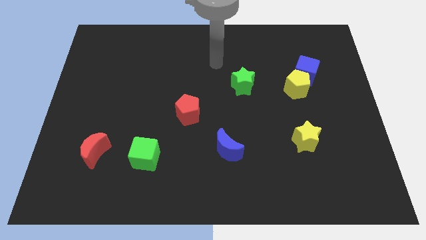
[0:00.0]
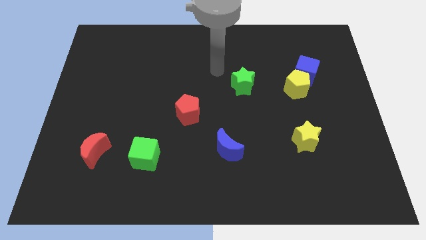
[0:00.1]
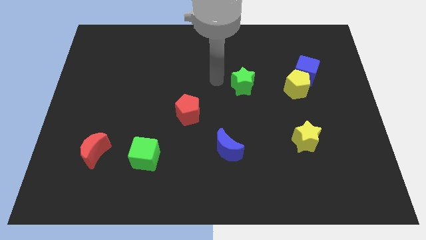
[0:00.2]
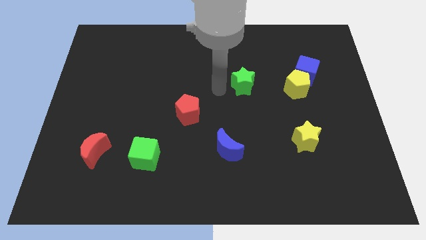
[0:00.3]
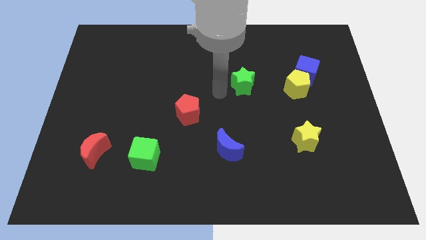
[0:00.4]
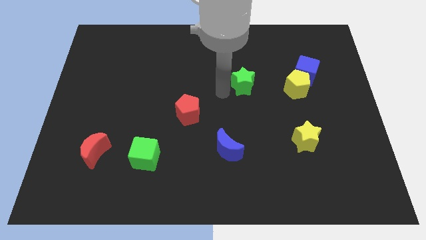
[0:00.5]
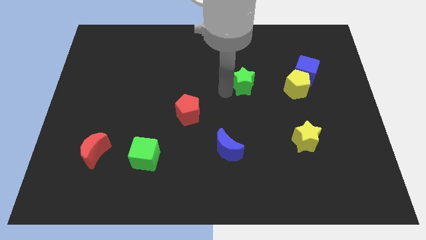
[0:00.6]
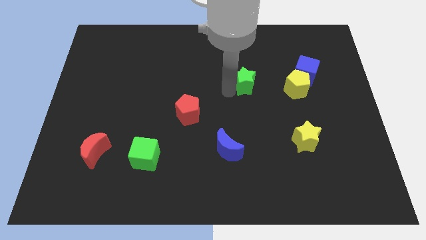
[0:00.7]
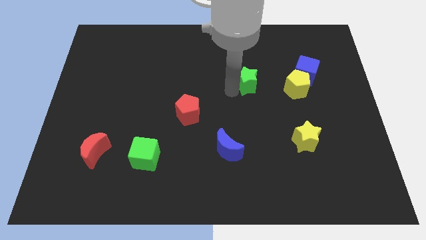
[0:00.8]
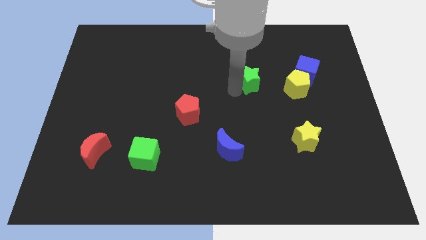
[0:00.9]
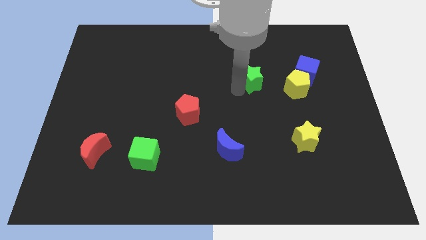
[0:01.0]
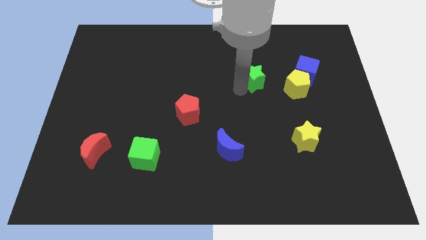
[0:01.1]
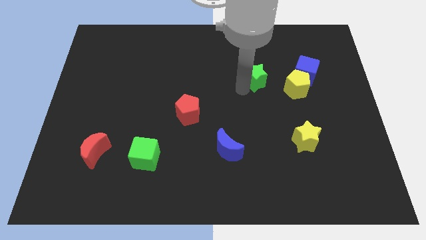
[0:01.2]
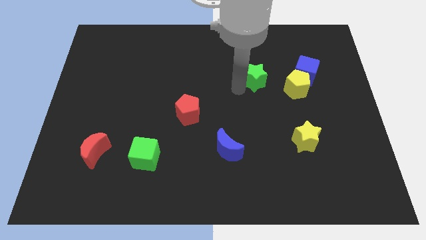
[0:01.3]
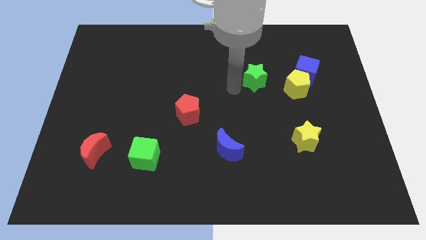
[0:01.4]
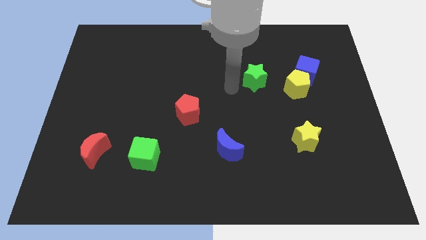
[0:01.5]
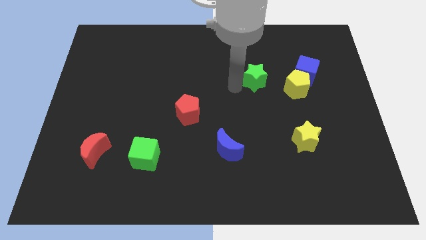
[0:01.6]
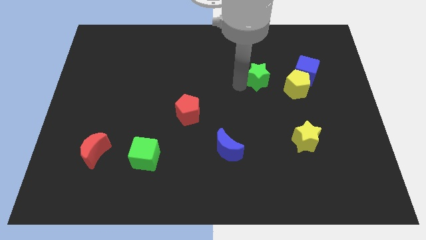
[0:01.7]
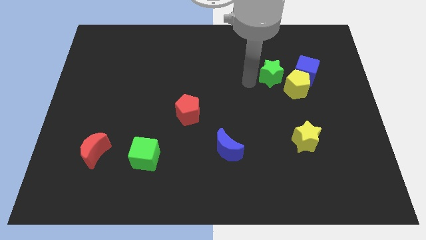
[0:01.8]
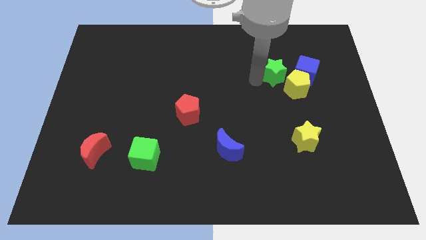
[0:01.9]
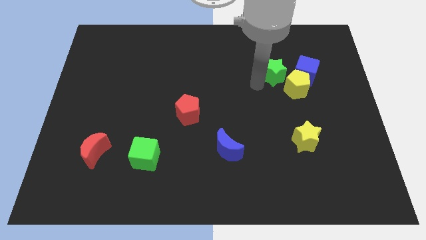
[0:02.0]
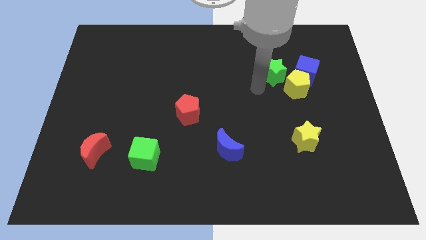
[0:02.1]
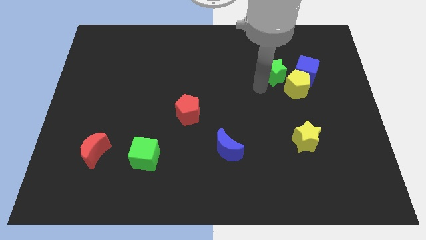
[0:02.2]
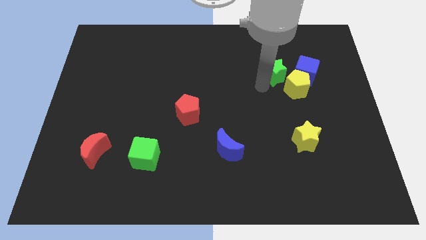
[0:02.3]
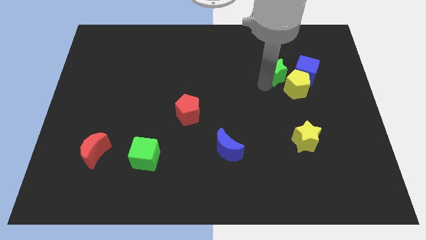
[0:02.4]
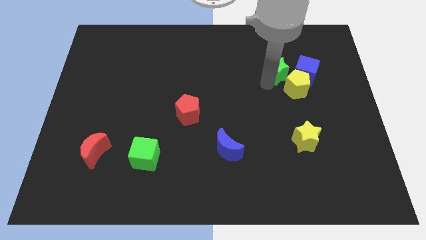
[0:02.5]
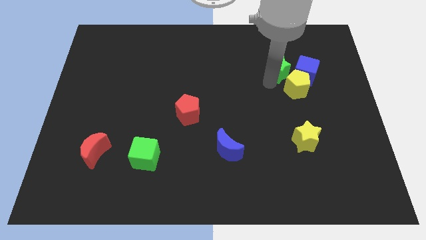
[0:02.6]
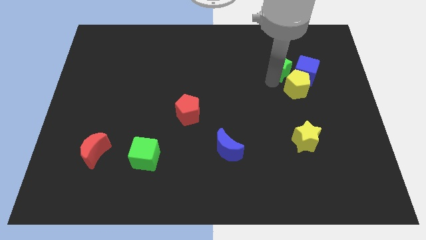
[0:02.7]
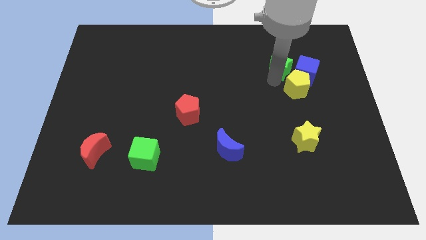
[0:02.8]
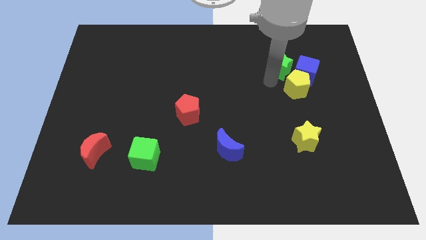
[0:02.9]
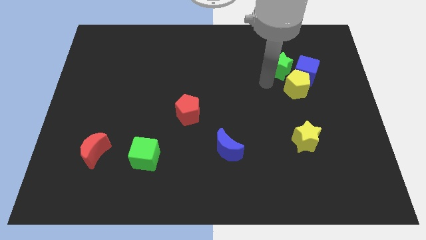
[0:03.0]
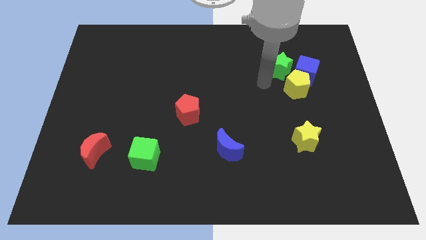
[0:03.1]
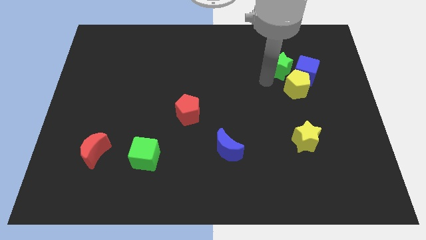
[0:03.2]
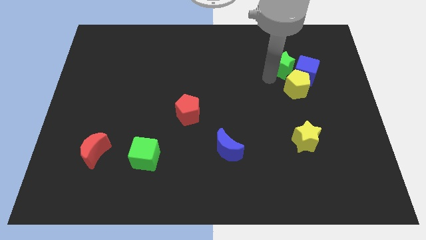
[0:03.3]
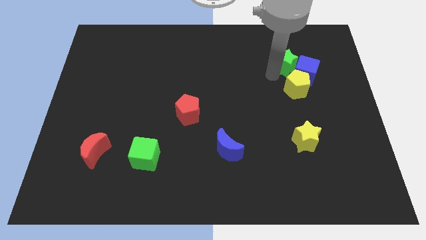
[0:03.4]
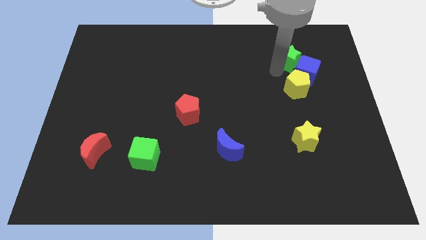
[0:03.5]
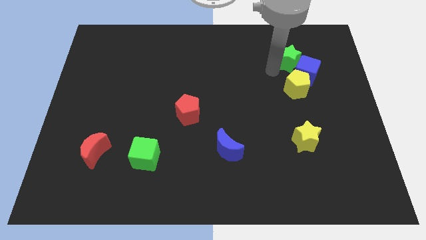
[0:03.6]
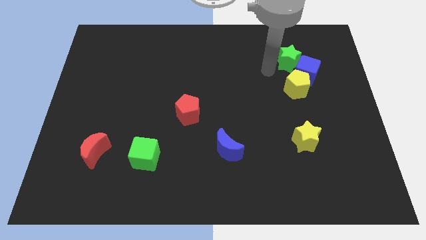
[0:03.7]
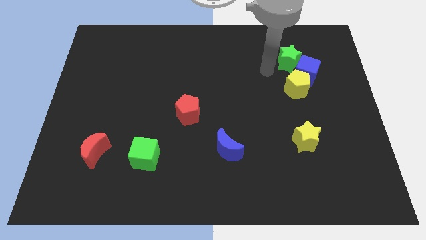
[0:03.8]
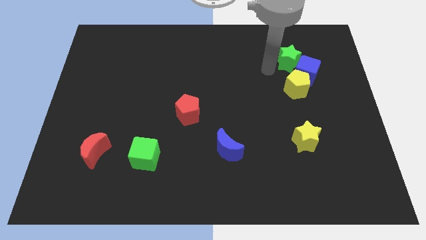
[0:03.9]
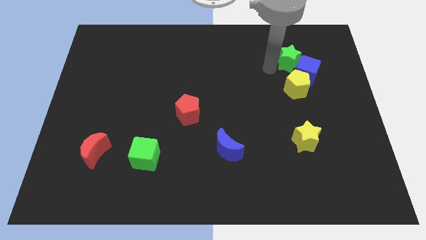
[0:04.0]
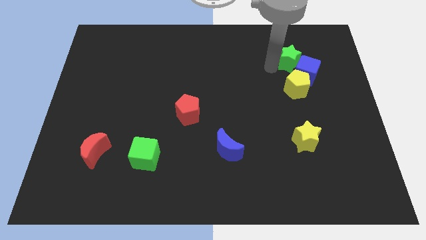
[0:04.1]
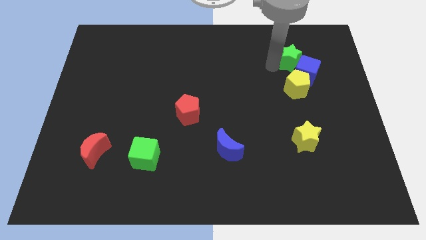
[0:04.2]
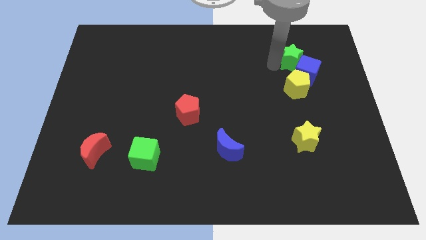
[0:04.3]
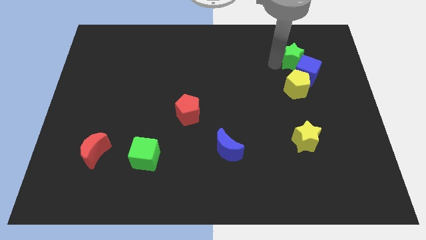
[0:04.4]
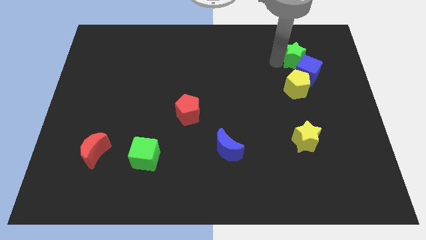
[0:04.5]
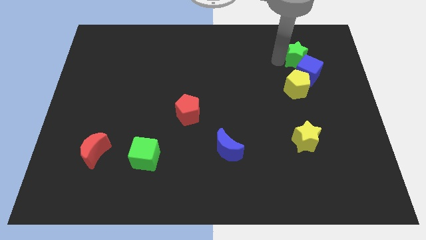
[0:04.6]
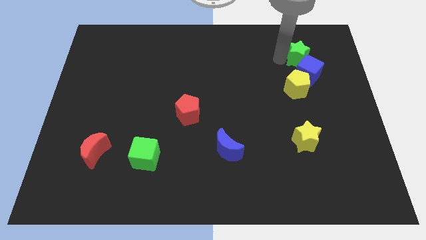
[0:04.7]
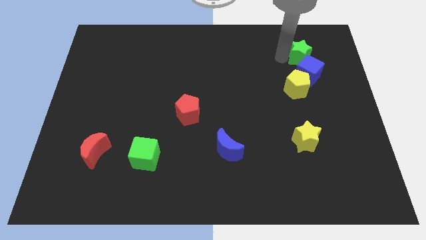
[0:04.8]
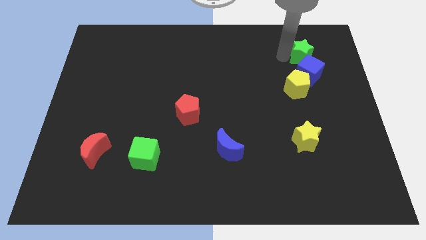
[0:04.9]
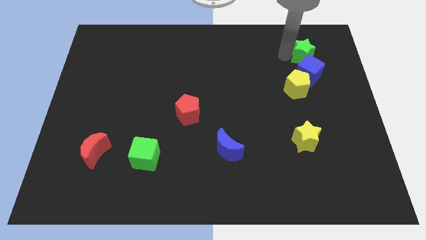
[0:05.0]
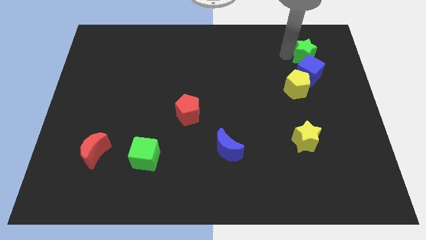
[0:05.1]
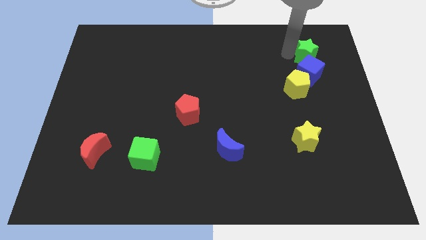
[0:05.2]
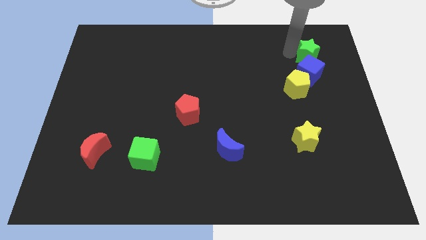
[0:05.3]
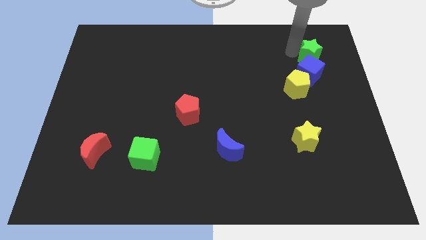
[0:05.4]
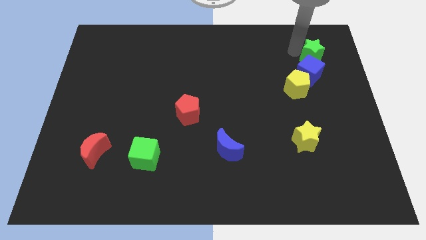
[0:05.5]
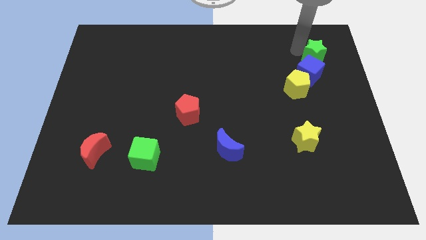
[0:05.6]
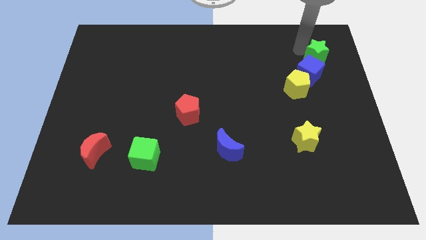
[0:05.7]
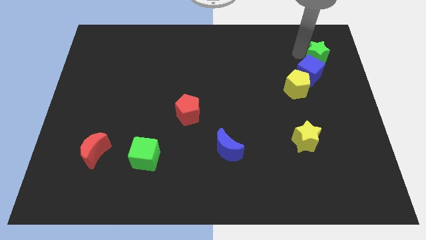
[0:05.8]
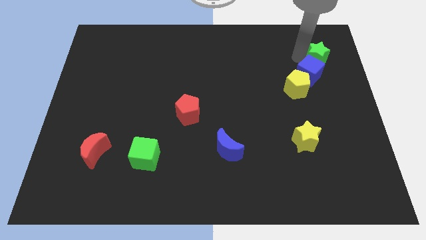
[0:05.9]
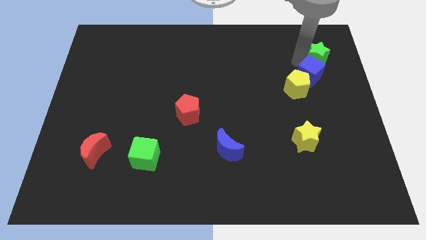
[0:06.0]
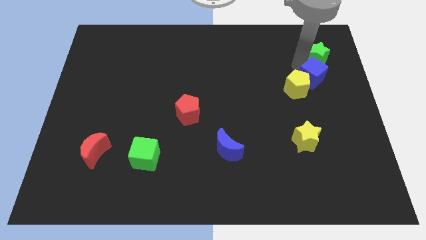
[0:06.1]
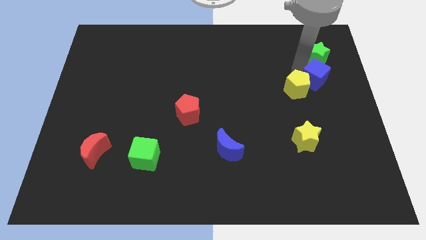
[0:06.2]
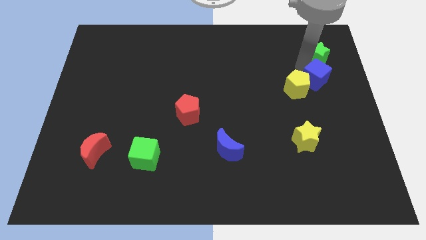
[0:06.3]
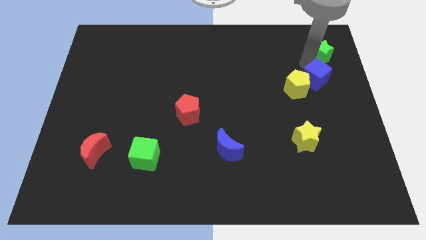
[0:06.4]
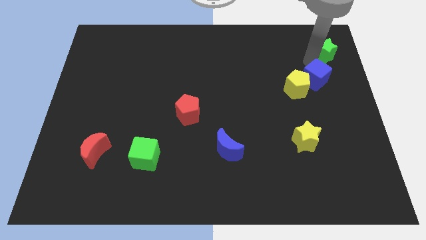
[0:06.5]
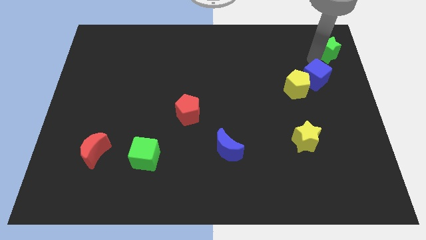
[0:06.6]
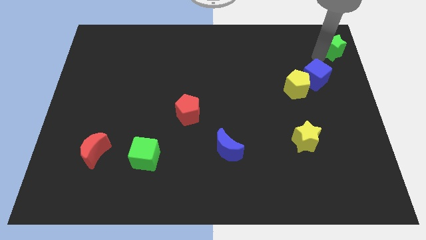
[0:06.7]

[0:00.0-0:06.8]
move the green star to the top right corner
